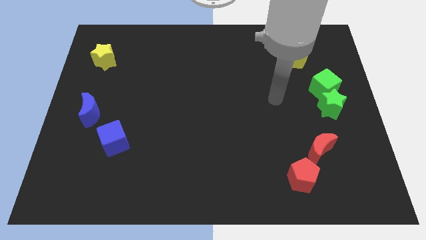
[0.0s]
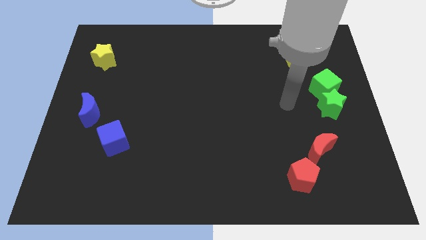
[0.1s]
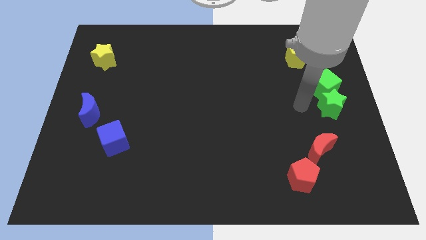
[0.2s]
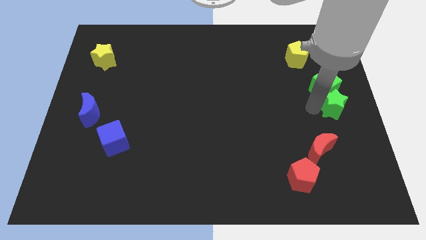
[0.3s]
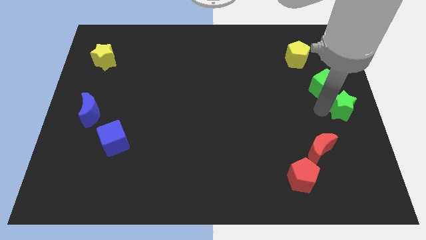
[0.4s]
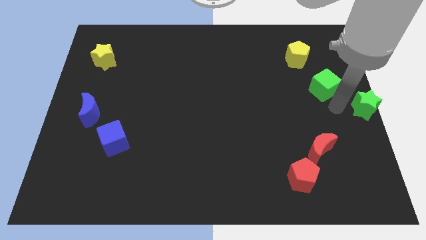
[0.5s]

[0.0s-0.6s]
pull the green cube apart from the green star

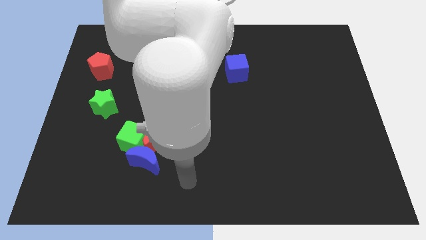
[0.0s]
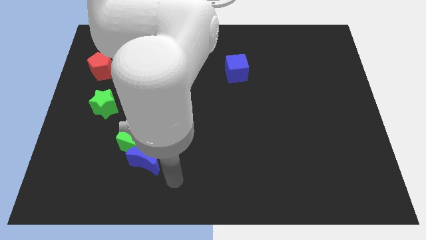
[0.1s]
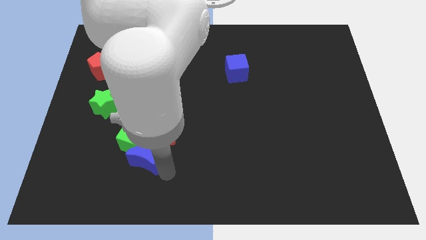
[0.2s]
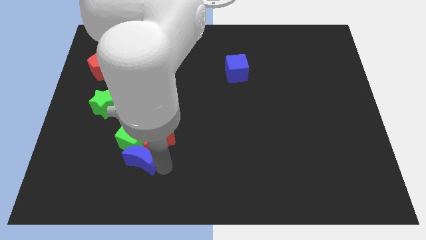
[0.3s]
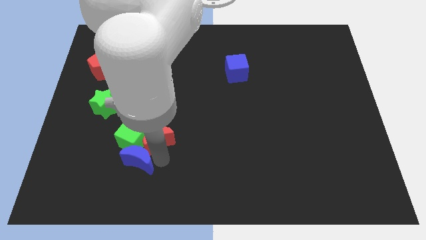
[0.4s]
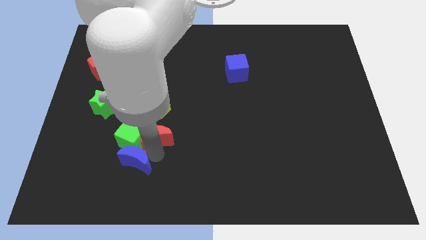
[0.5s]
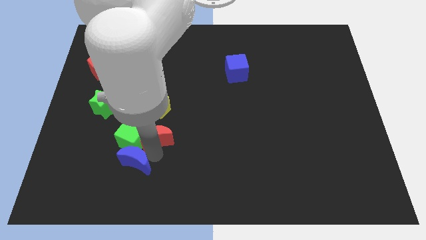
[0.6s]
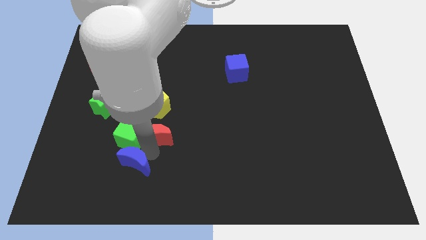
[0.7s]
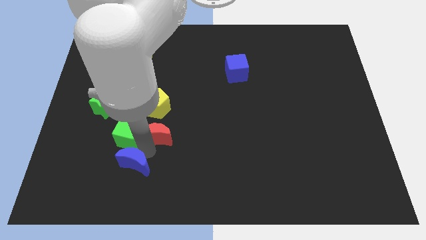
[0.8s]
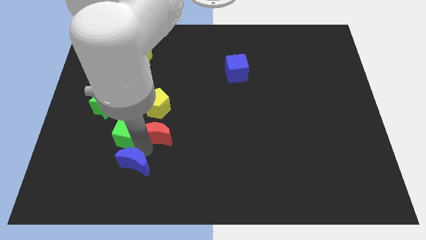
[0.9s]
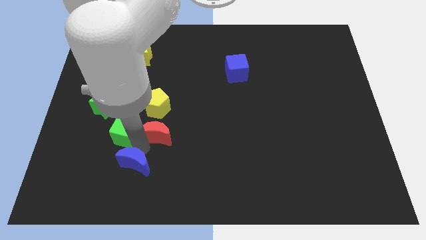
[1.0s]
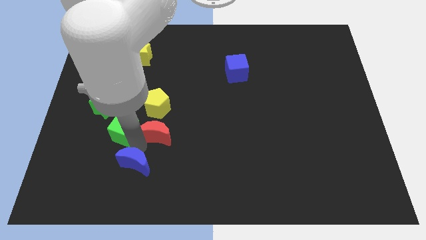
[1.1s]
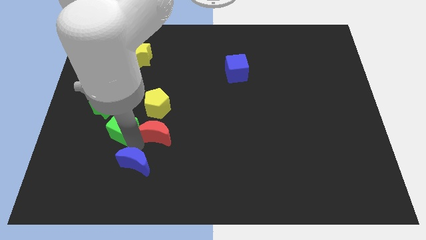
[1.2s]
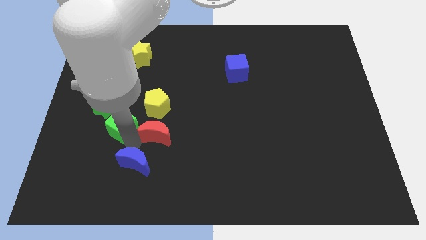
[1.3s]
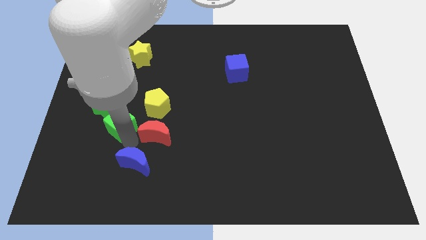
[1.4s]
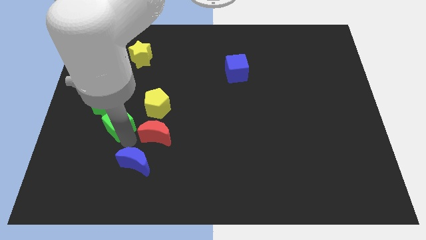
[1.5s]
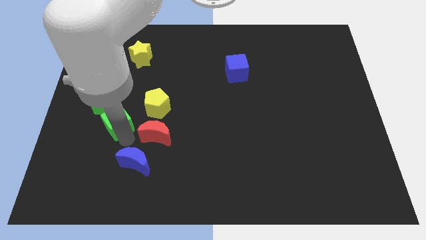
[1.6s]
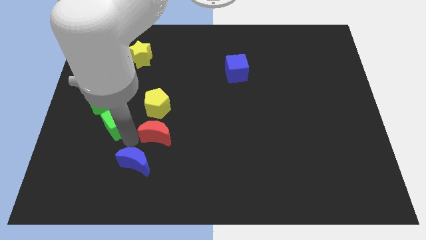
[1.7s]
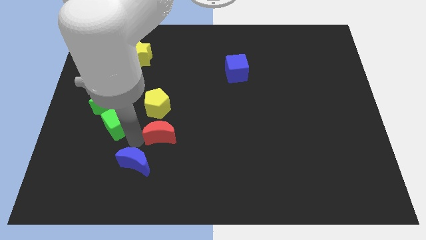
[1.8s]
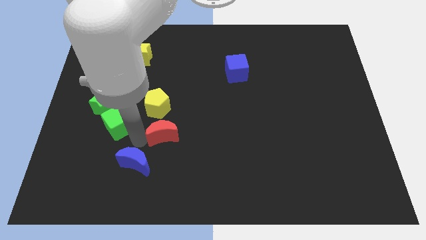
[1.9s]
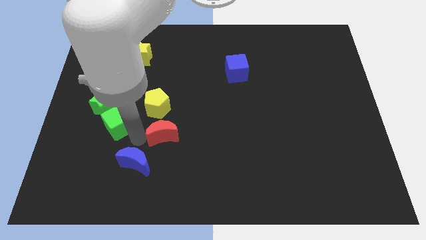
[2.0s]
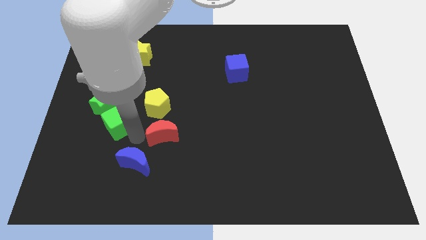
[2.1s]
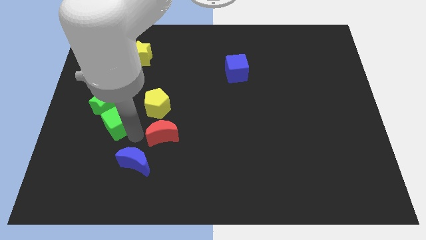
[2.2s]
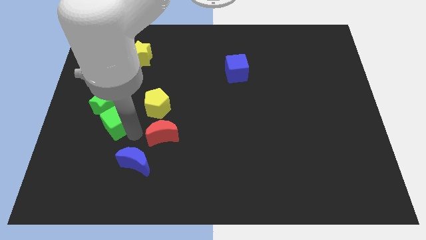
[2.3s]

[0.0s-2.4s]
separate the green cube from the red moon and blue moon

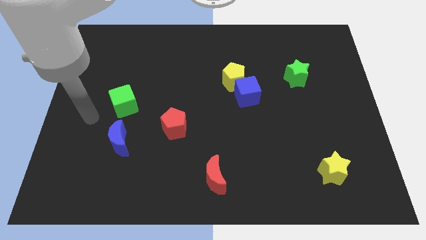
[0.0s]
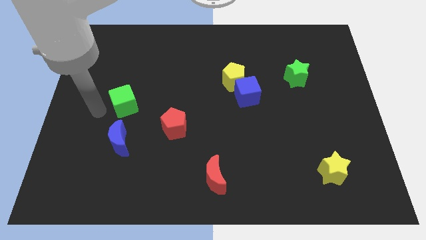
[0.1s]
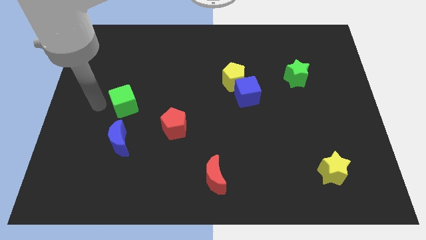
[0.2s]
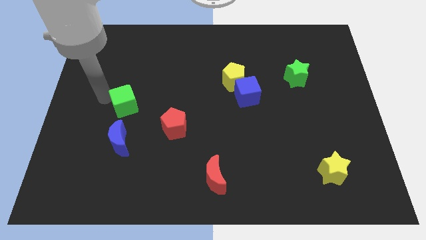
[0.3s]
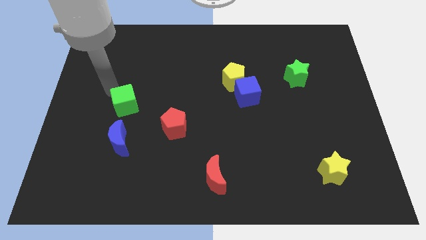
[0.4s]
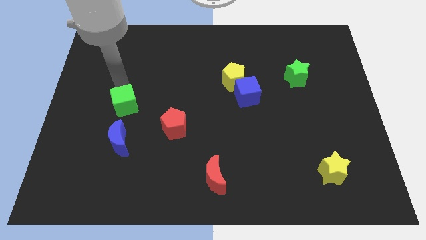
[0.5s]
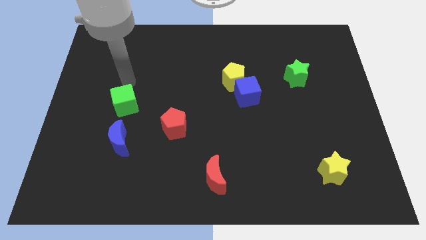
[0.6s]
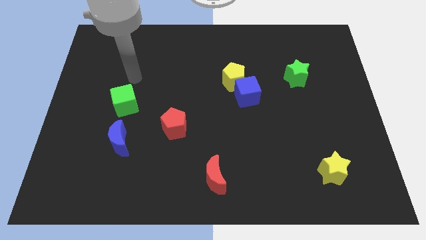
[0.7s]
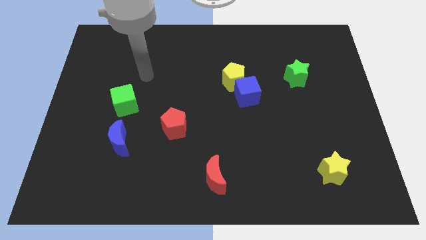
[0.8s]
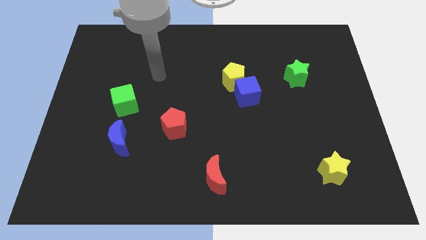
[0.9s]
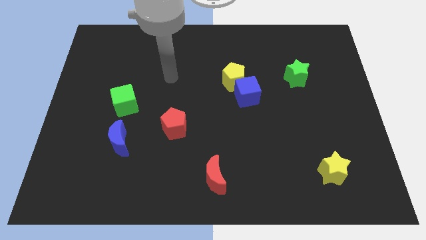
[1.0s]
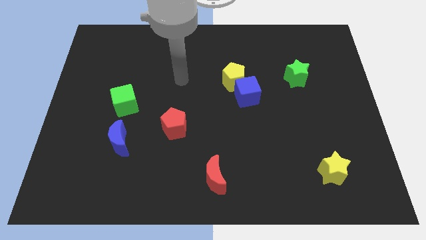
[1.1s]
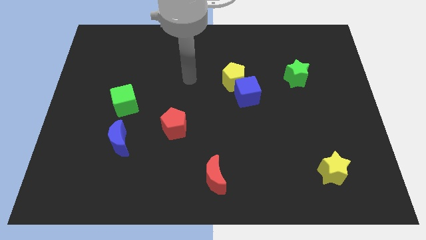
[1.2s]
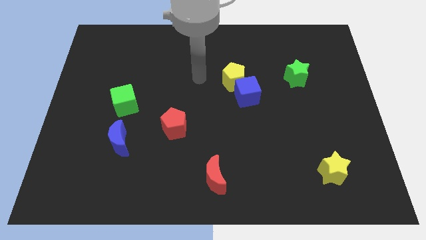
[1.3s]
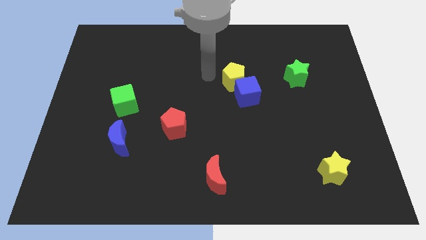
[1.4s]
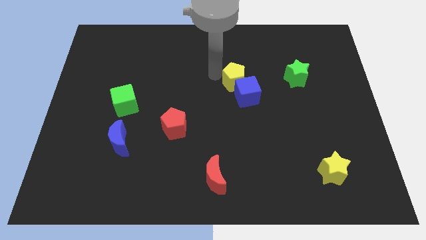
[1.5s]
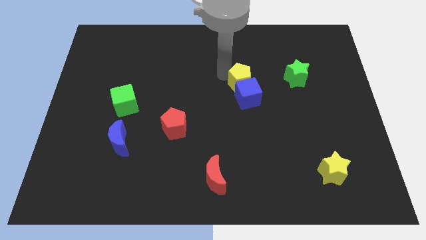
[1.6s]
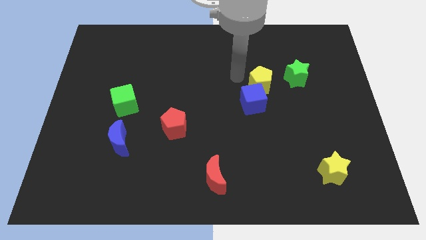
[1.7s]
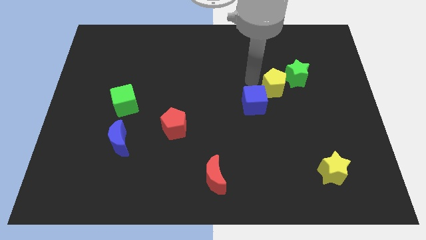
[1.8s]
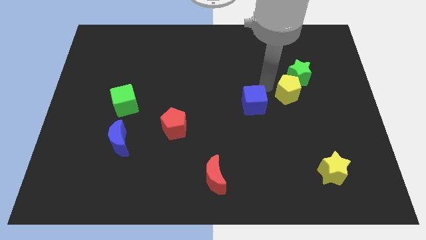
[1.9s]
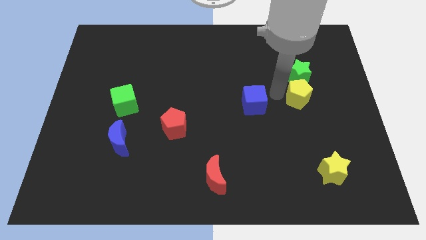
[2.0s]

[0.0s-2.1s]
pull the blue cube apart from the yellow pentagon

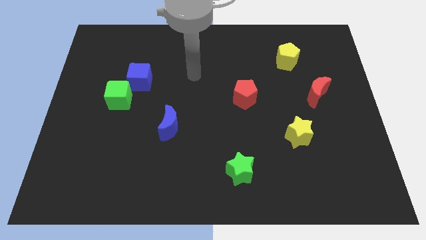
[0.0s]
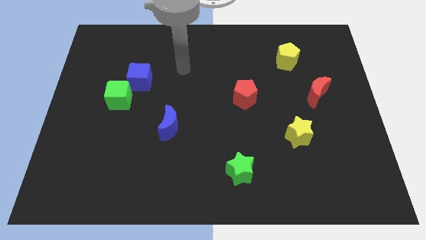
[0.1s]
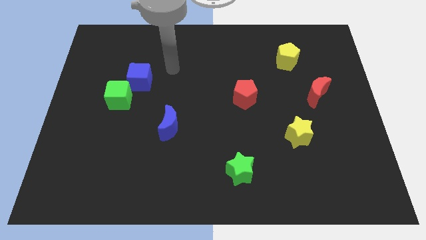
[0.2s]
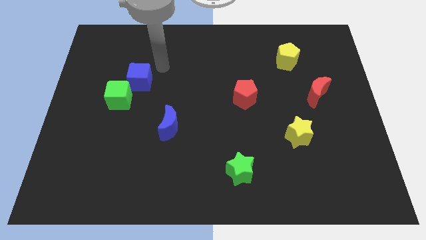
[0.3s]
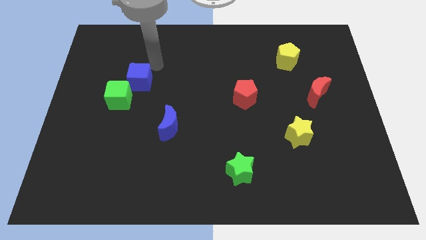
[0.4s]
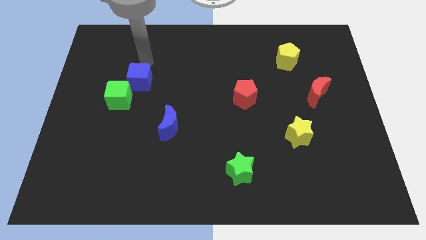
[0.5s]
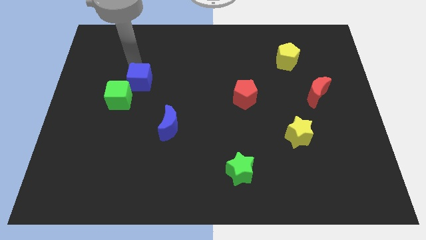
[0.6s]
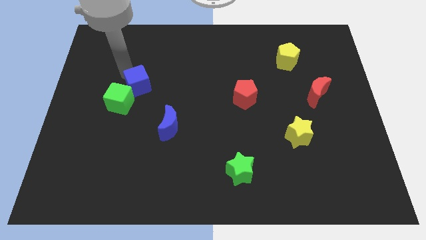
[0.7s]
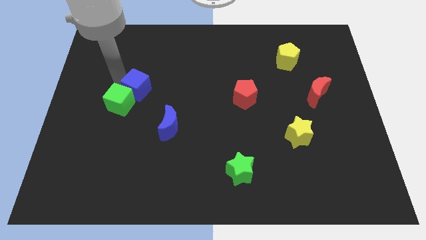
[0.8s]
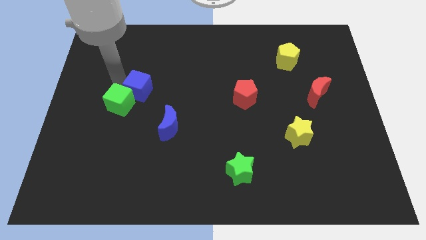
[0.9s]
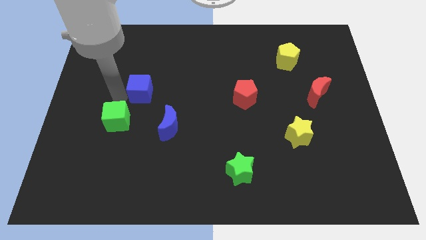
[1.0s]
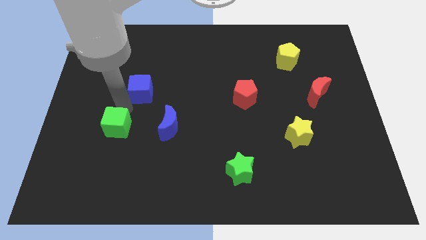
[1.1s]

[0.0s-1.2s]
separate the blue cube from the green cube

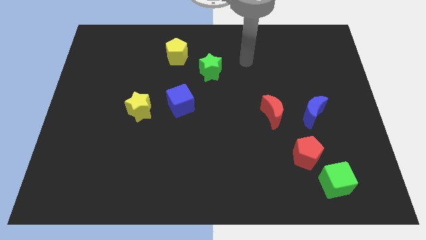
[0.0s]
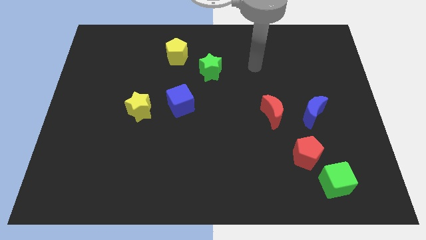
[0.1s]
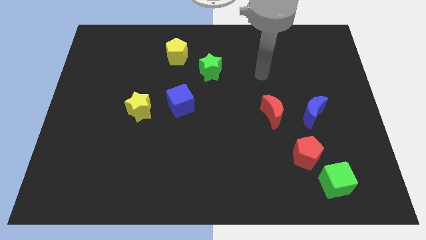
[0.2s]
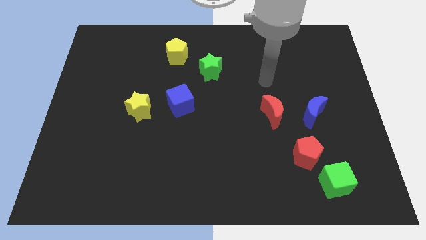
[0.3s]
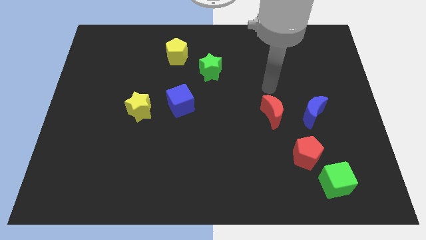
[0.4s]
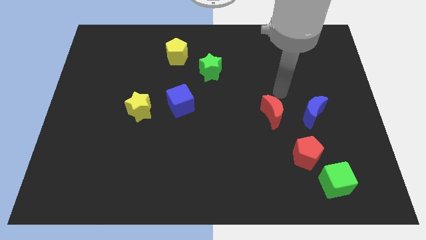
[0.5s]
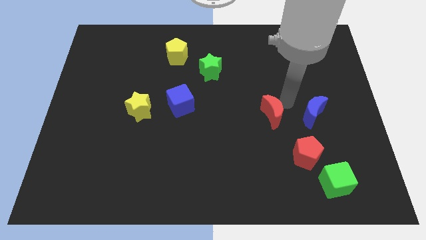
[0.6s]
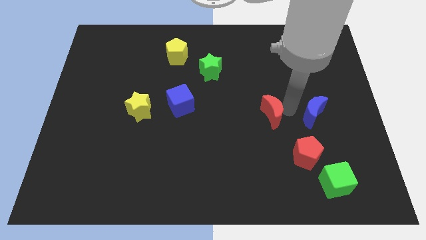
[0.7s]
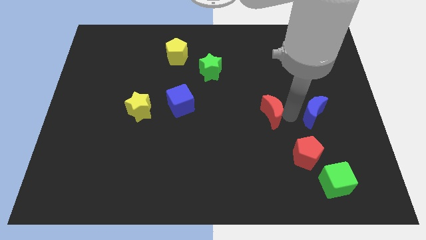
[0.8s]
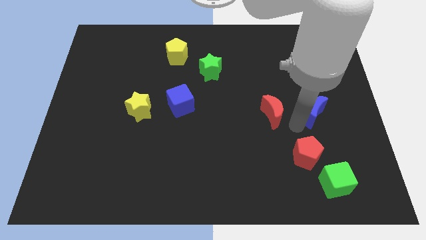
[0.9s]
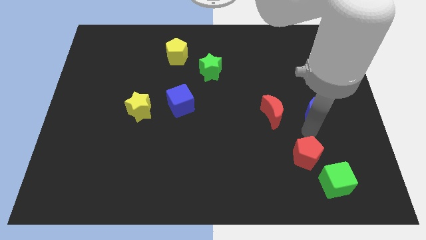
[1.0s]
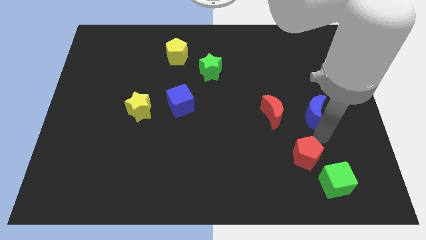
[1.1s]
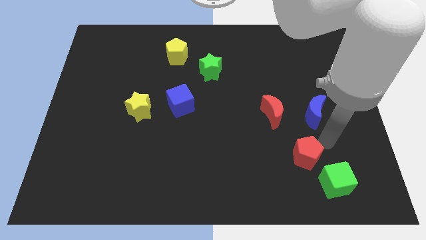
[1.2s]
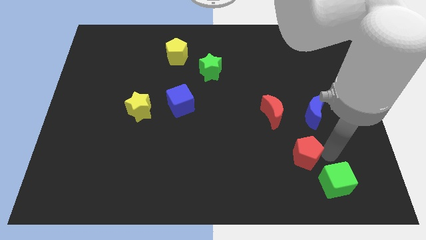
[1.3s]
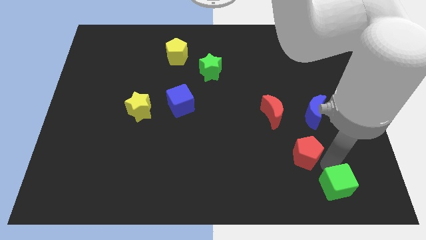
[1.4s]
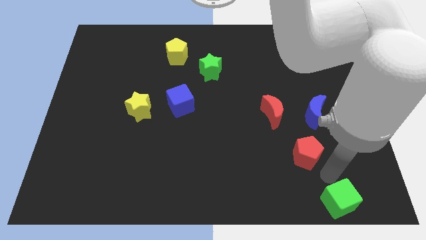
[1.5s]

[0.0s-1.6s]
pull the red pentagon apart from the green cube

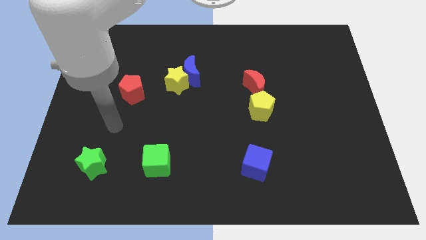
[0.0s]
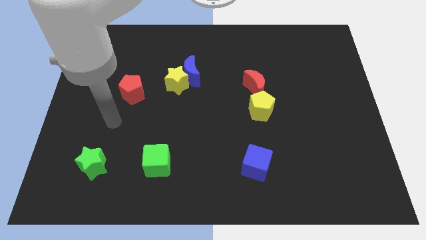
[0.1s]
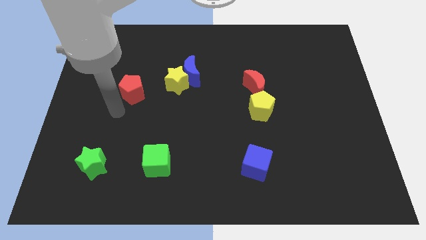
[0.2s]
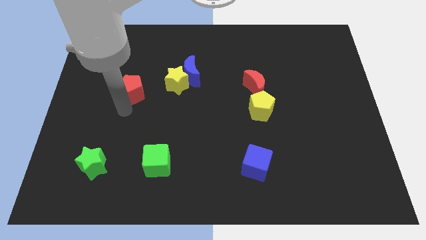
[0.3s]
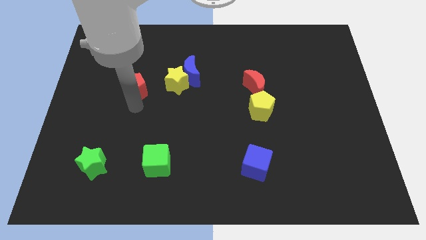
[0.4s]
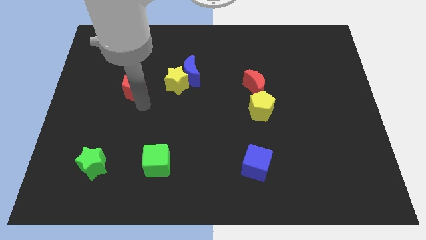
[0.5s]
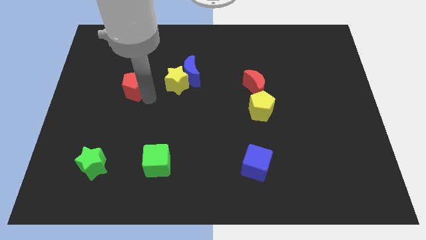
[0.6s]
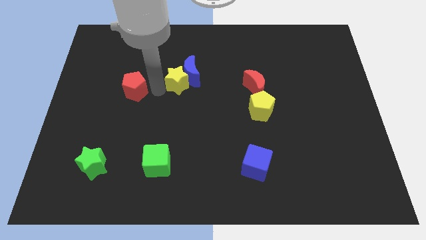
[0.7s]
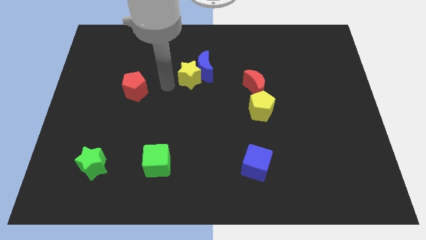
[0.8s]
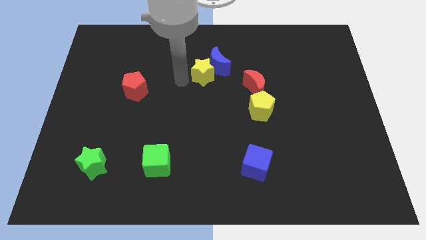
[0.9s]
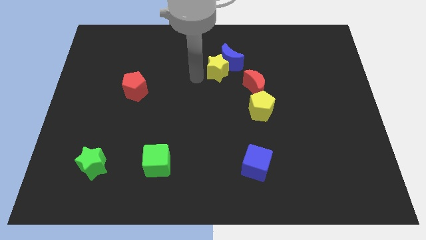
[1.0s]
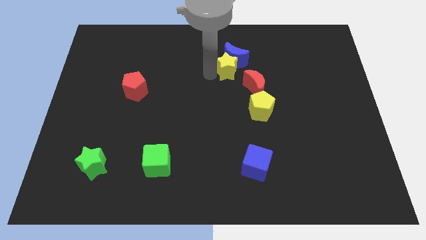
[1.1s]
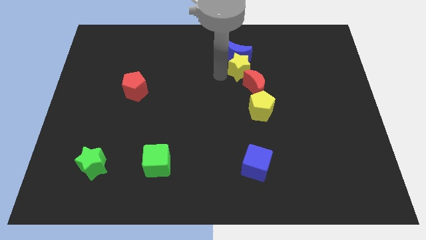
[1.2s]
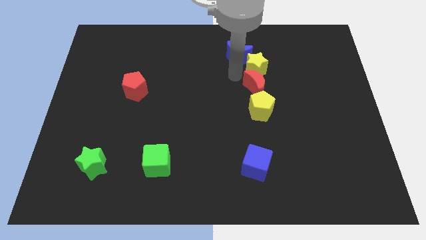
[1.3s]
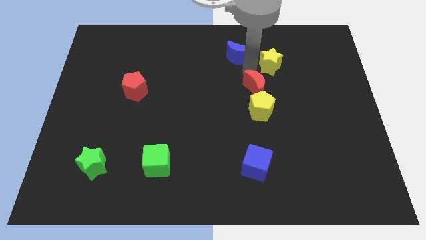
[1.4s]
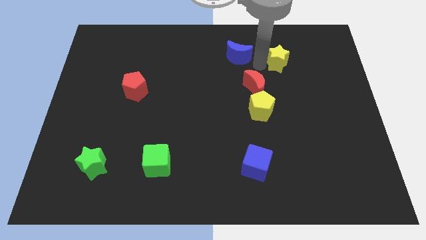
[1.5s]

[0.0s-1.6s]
pull the blue moon apart from the yellow star
